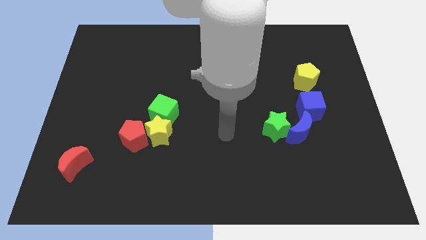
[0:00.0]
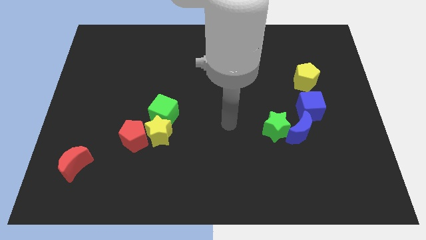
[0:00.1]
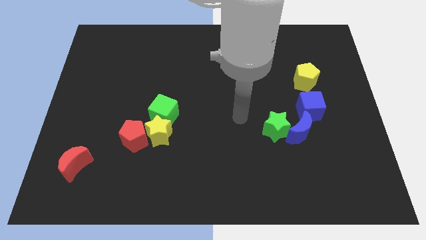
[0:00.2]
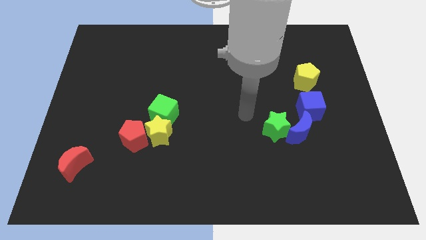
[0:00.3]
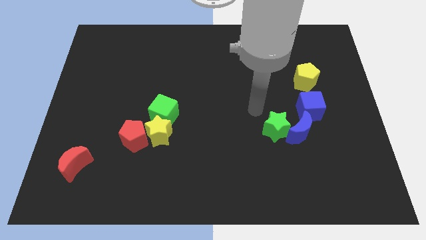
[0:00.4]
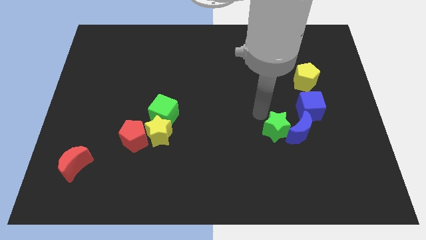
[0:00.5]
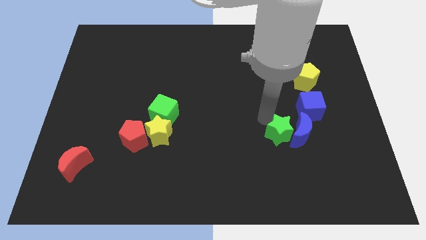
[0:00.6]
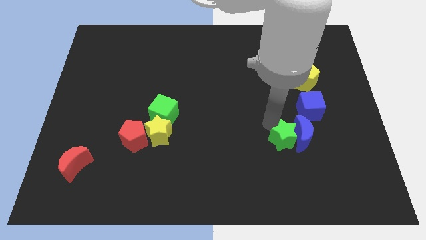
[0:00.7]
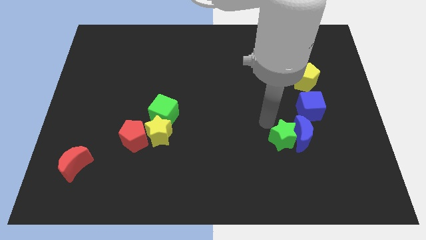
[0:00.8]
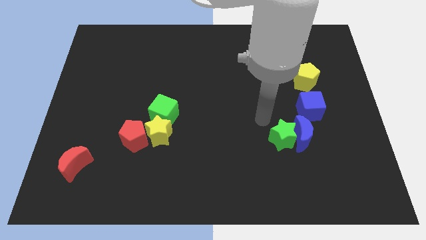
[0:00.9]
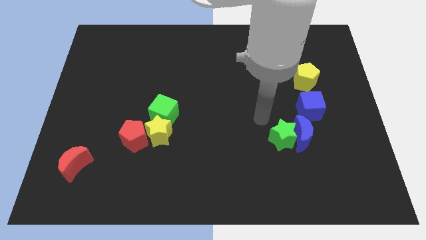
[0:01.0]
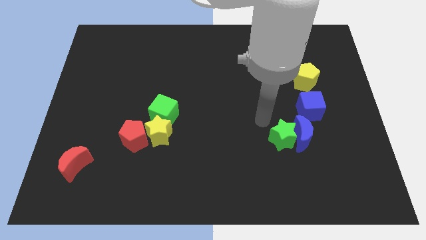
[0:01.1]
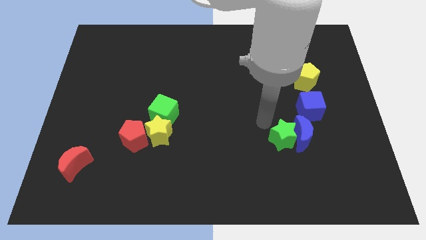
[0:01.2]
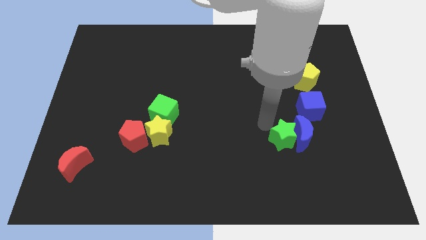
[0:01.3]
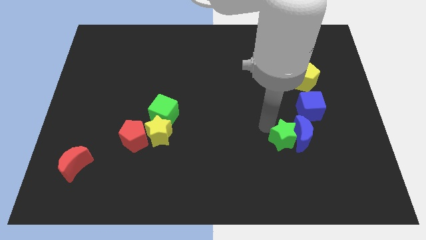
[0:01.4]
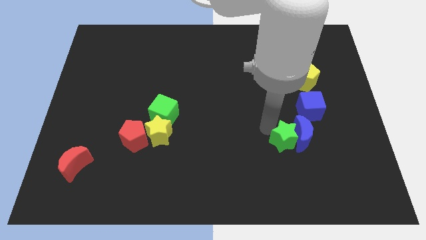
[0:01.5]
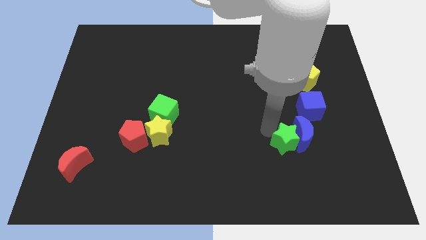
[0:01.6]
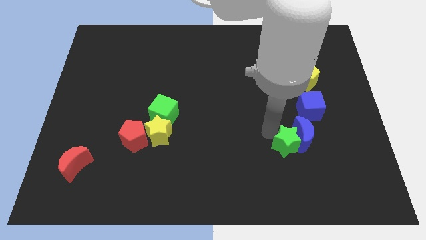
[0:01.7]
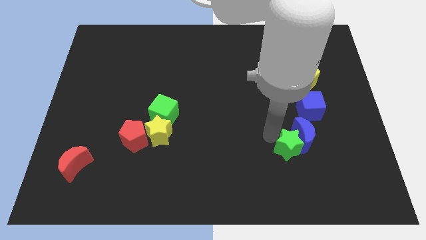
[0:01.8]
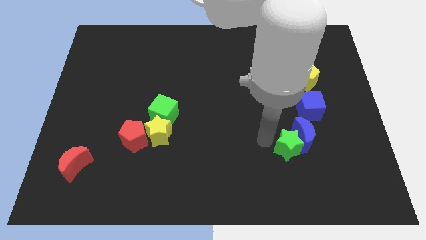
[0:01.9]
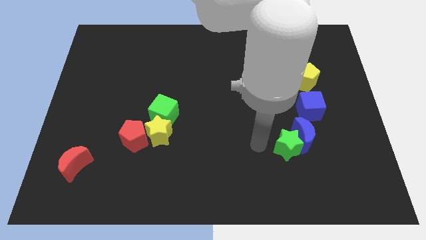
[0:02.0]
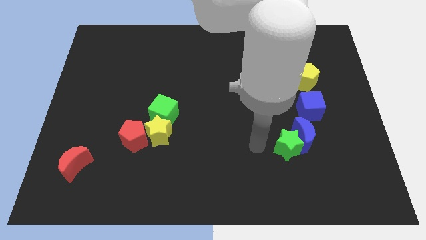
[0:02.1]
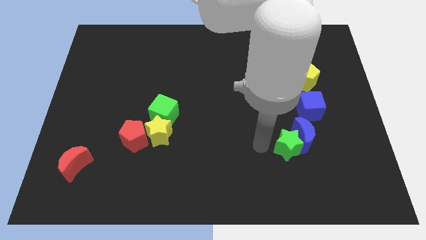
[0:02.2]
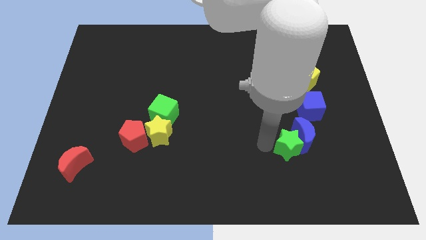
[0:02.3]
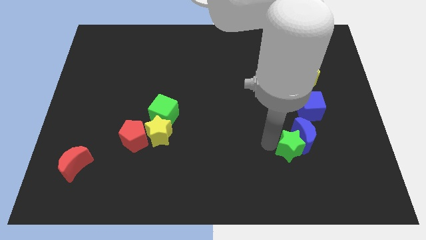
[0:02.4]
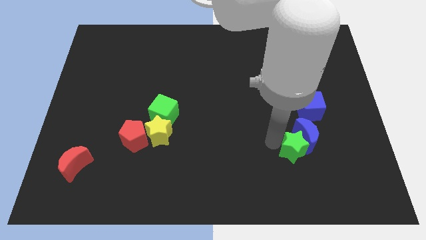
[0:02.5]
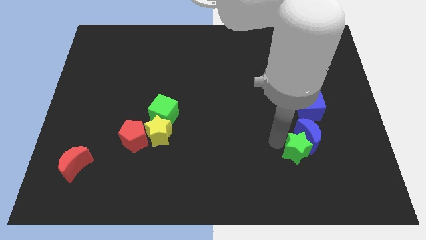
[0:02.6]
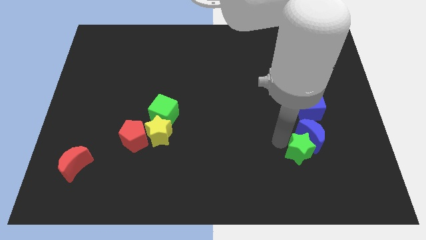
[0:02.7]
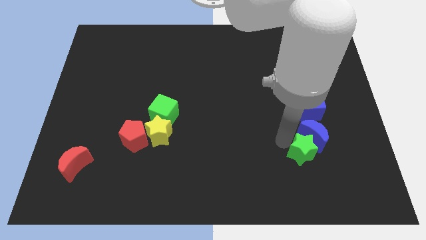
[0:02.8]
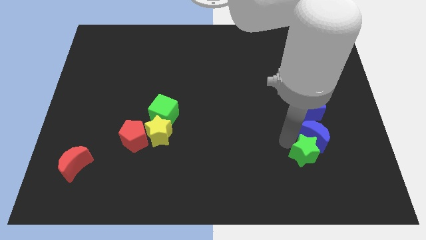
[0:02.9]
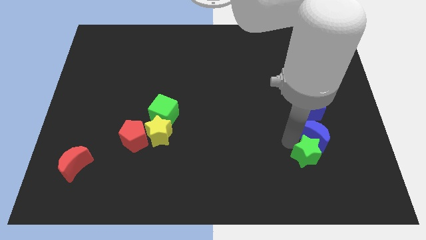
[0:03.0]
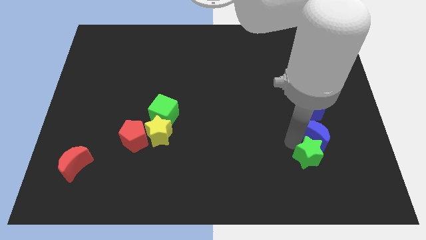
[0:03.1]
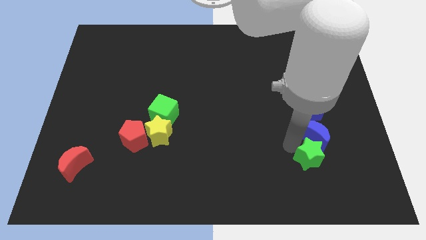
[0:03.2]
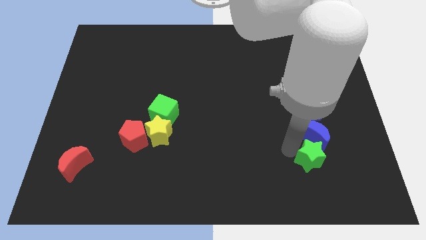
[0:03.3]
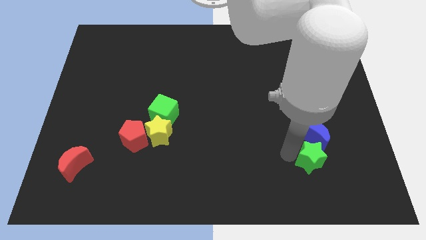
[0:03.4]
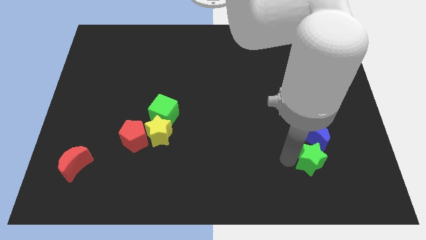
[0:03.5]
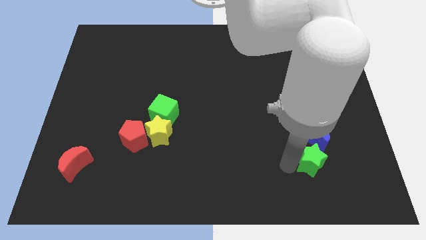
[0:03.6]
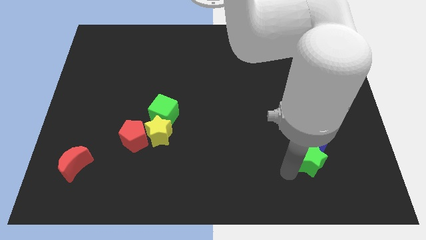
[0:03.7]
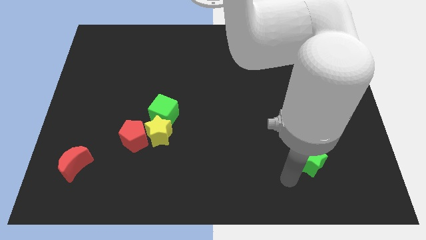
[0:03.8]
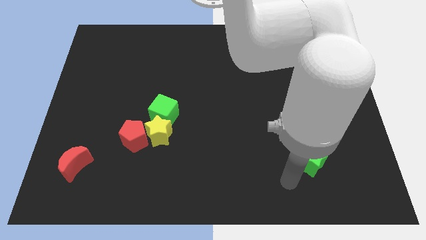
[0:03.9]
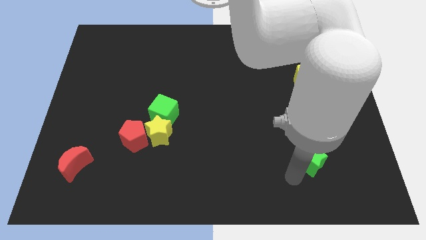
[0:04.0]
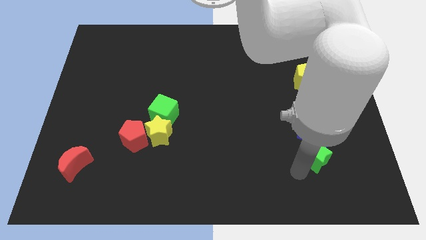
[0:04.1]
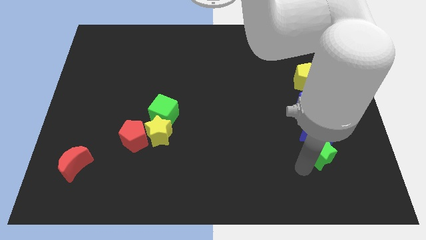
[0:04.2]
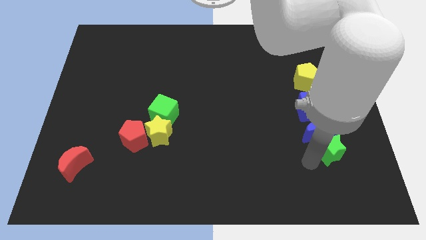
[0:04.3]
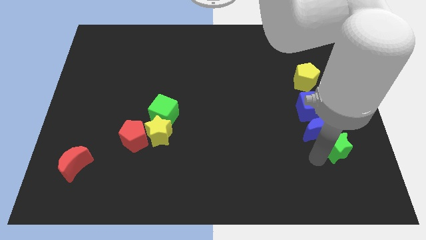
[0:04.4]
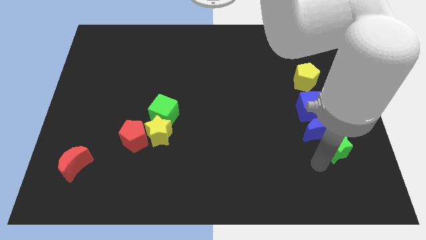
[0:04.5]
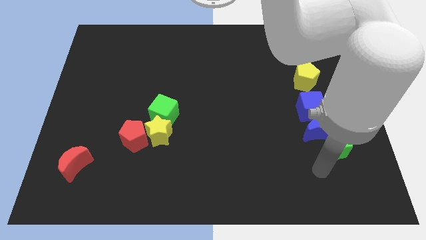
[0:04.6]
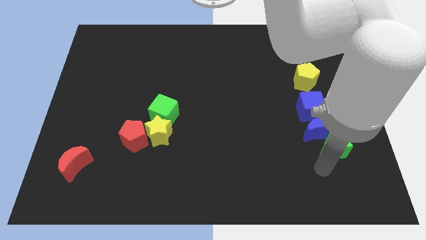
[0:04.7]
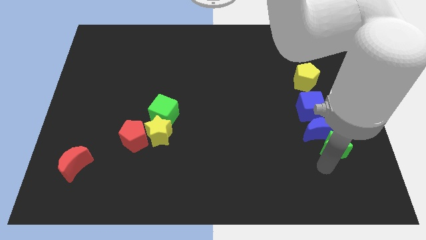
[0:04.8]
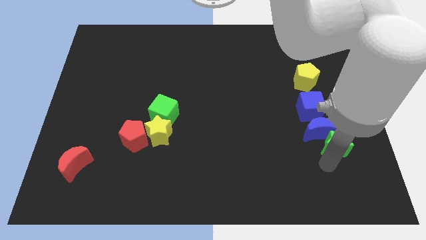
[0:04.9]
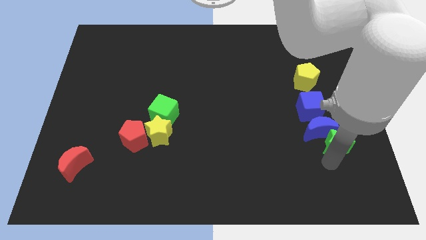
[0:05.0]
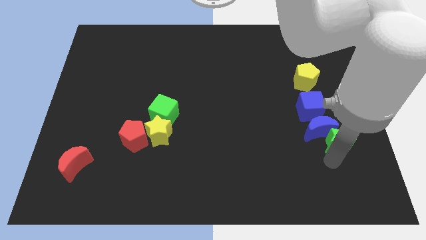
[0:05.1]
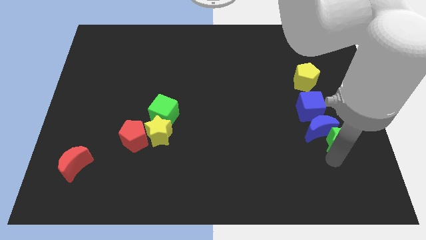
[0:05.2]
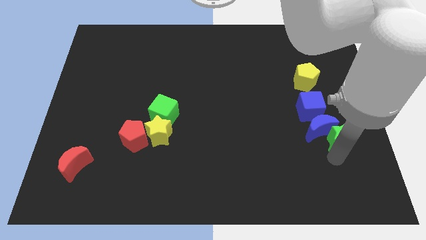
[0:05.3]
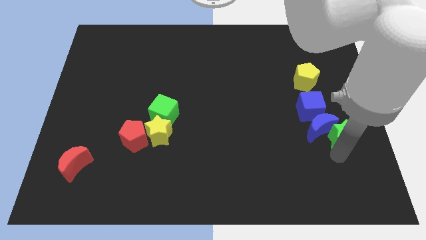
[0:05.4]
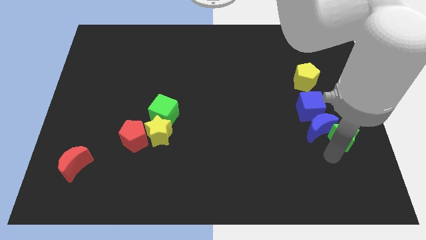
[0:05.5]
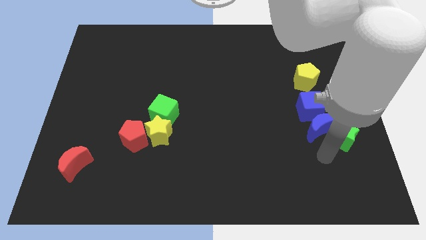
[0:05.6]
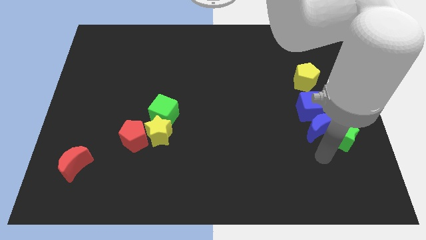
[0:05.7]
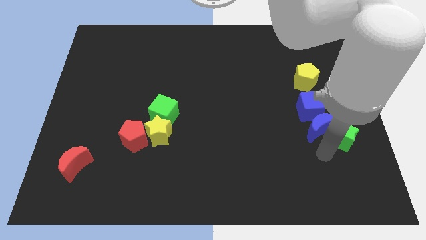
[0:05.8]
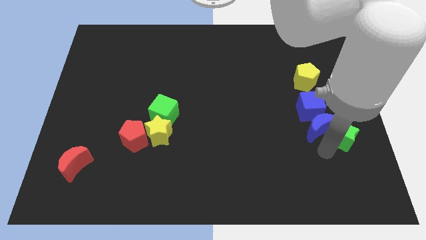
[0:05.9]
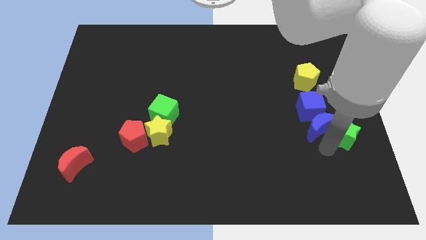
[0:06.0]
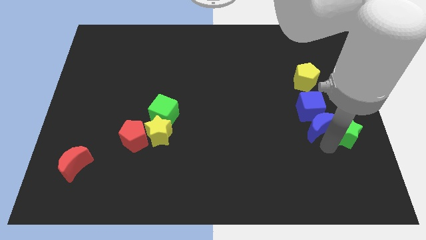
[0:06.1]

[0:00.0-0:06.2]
move the green star to the right side of the board

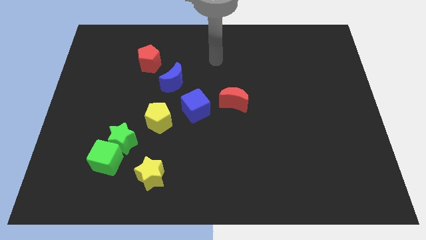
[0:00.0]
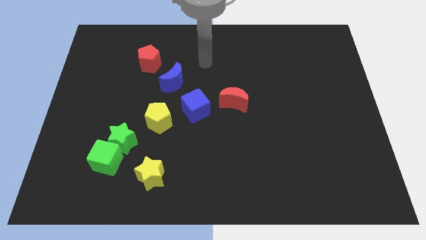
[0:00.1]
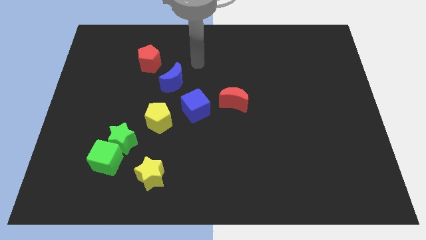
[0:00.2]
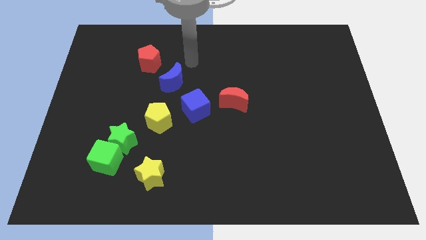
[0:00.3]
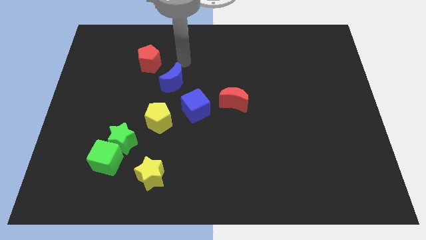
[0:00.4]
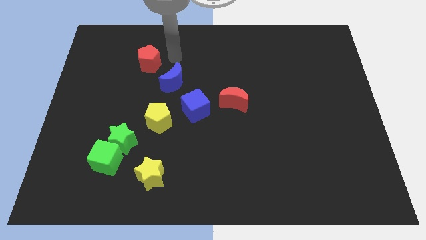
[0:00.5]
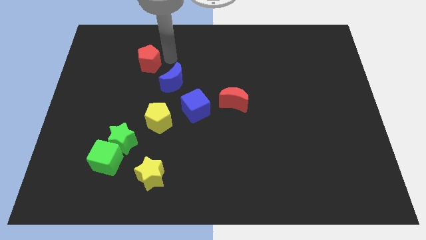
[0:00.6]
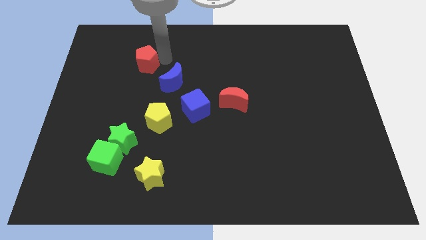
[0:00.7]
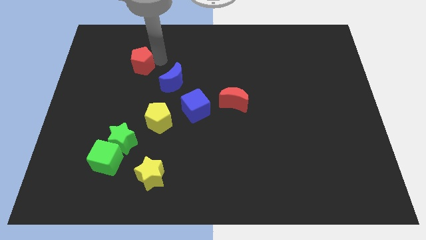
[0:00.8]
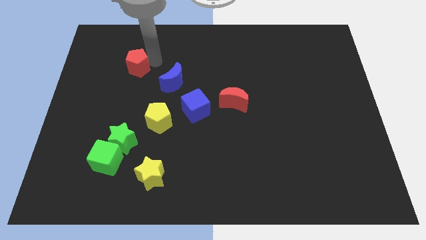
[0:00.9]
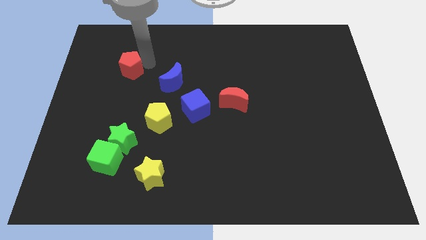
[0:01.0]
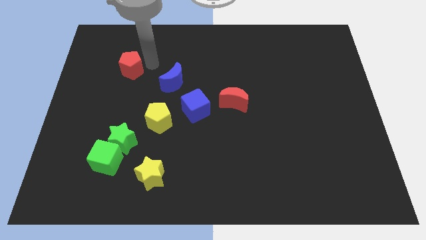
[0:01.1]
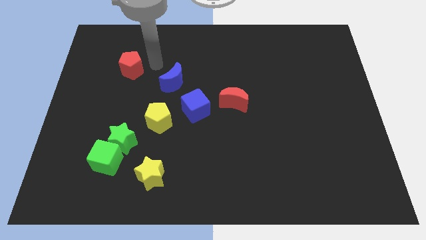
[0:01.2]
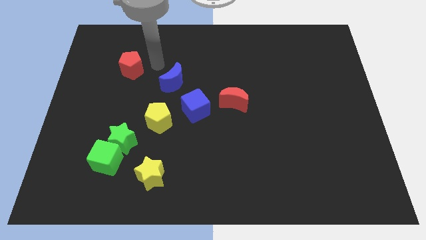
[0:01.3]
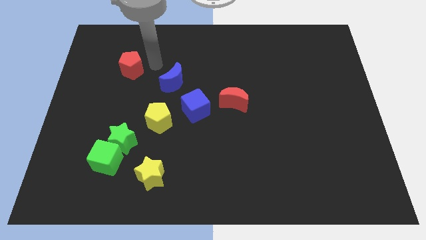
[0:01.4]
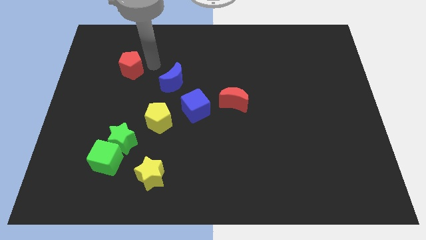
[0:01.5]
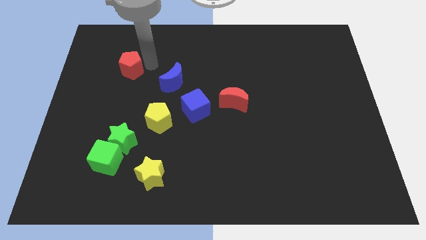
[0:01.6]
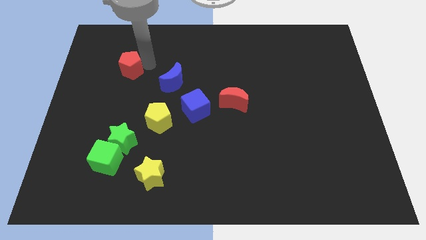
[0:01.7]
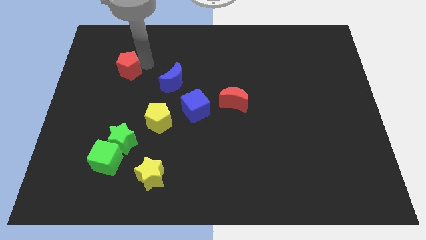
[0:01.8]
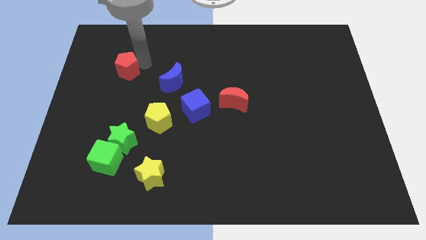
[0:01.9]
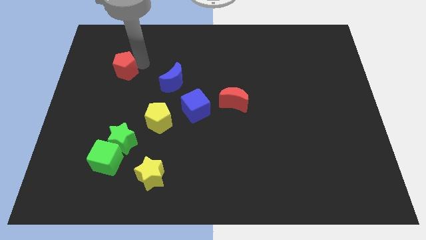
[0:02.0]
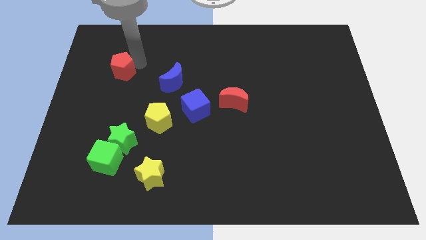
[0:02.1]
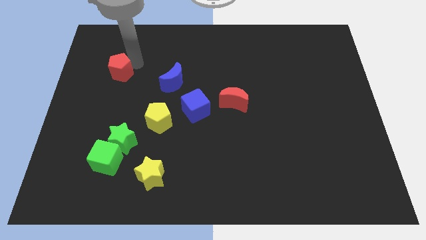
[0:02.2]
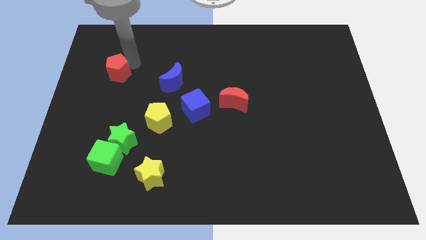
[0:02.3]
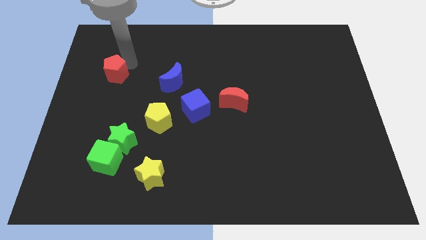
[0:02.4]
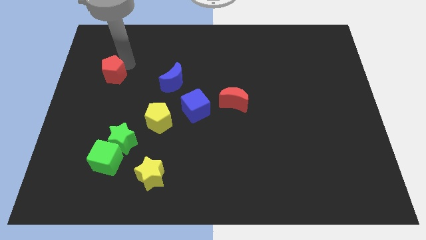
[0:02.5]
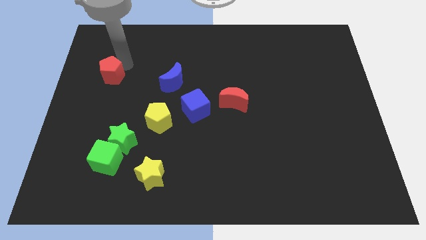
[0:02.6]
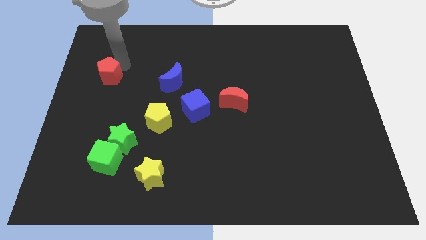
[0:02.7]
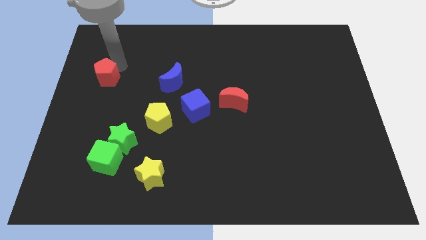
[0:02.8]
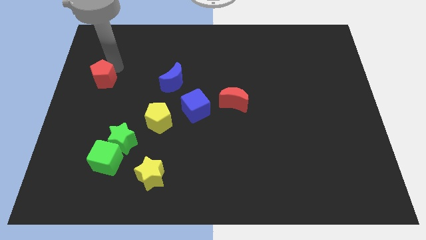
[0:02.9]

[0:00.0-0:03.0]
push the red pentagon to the left side
